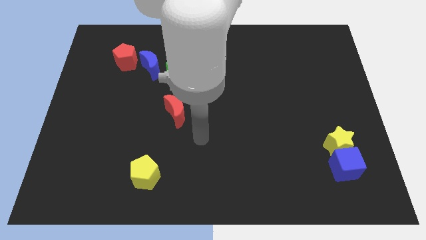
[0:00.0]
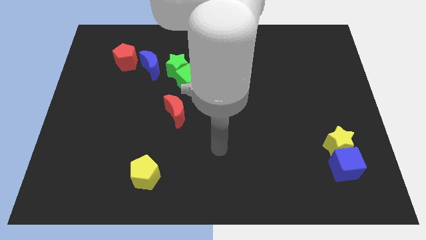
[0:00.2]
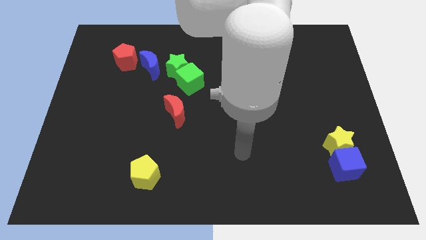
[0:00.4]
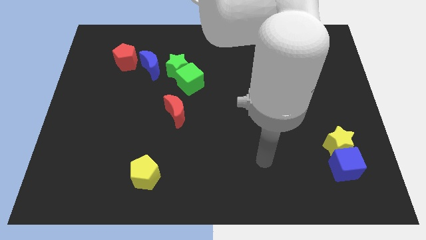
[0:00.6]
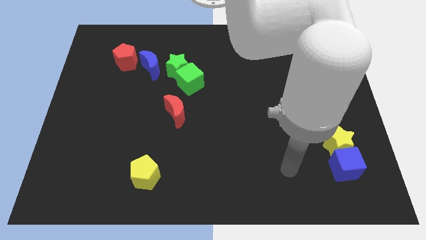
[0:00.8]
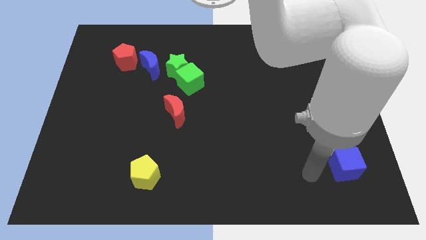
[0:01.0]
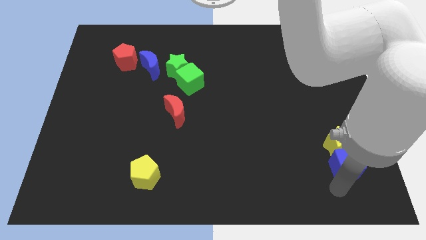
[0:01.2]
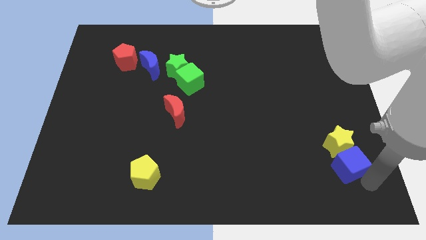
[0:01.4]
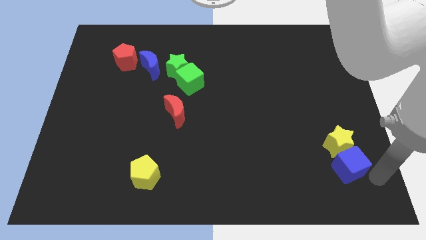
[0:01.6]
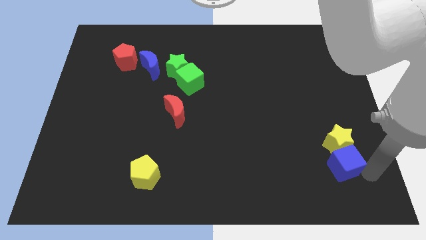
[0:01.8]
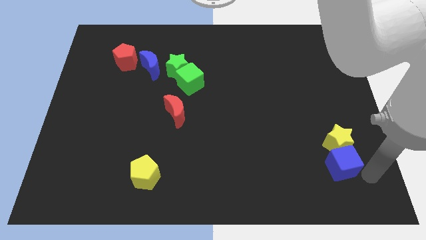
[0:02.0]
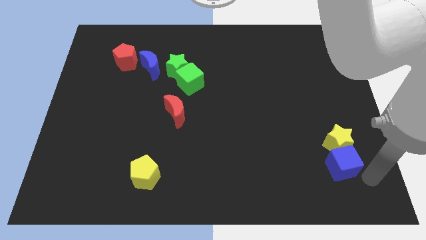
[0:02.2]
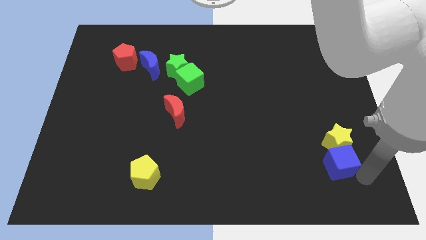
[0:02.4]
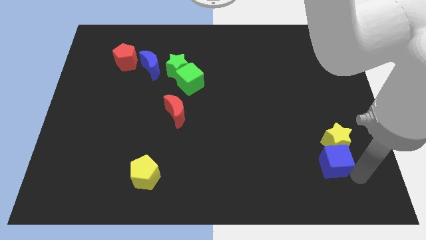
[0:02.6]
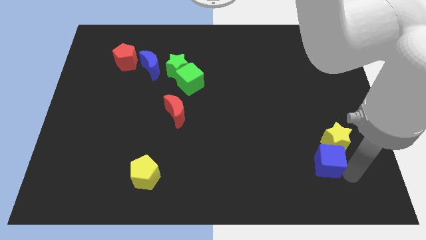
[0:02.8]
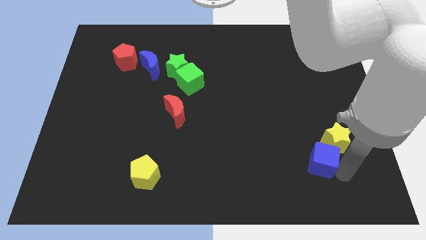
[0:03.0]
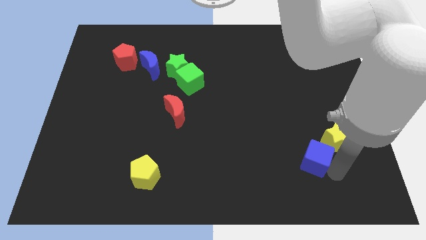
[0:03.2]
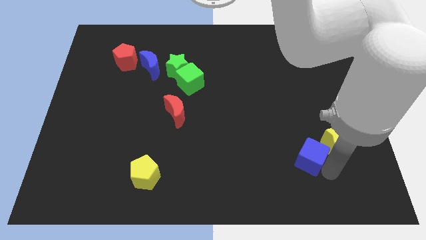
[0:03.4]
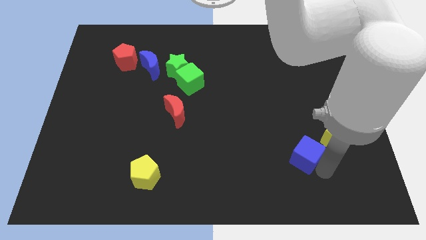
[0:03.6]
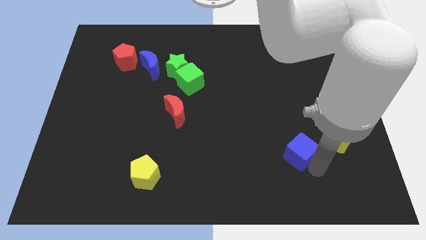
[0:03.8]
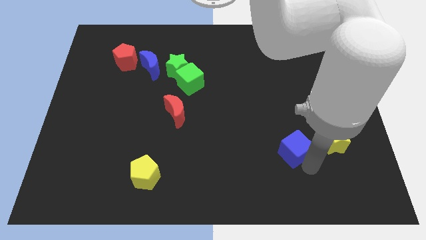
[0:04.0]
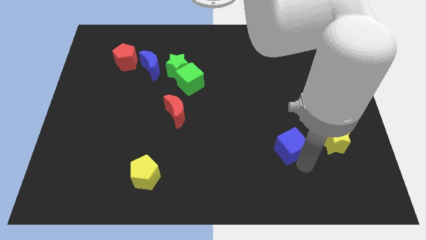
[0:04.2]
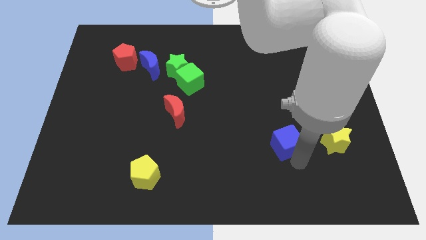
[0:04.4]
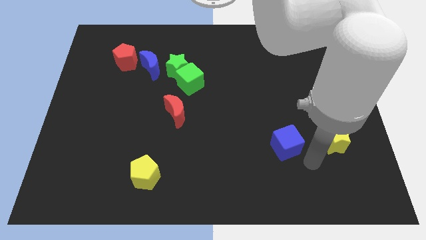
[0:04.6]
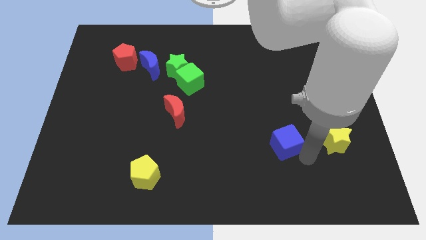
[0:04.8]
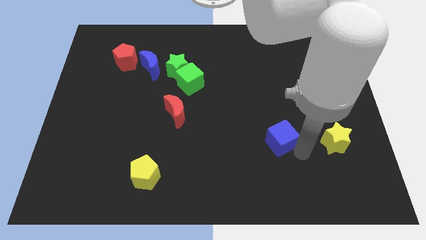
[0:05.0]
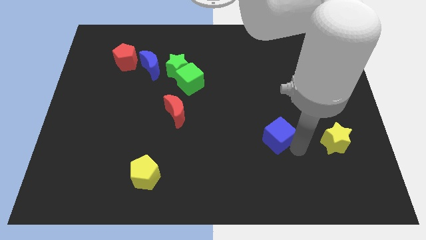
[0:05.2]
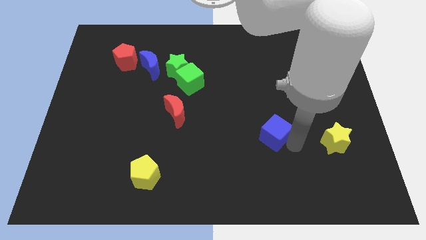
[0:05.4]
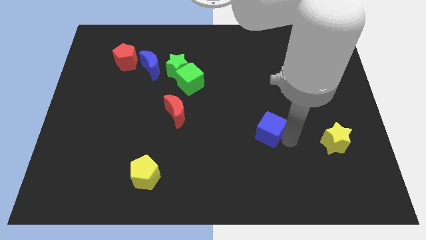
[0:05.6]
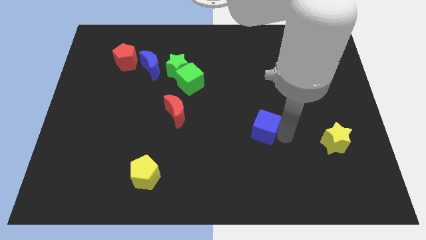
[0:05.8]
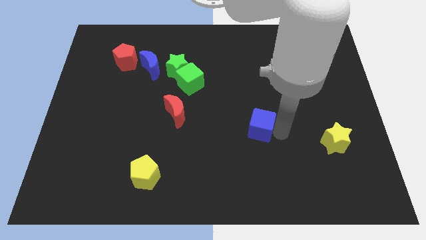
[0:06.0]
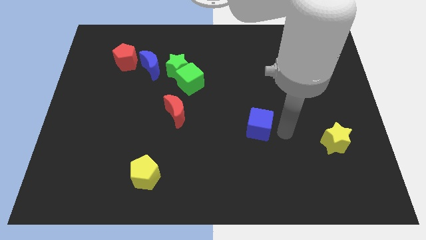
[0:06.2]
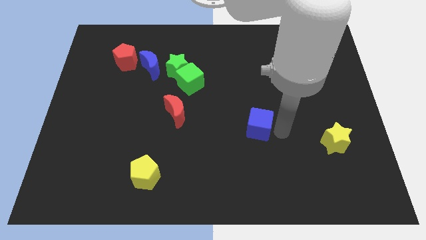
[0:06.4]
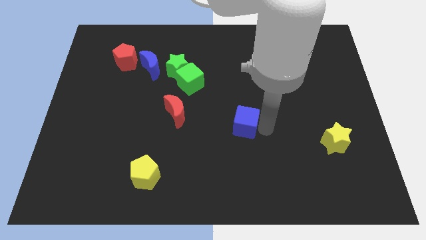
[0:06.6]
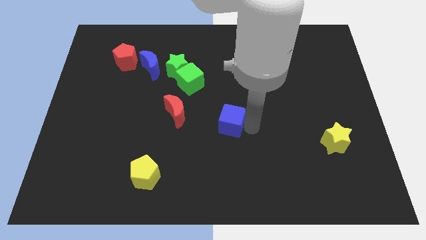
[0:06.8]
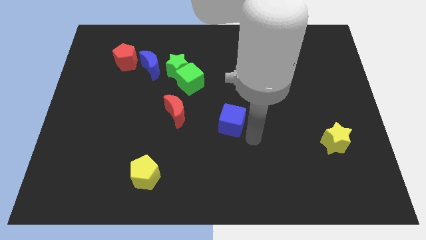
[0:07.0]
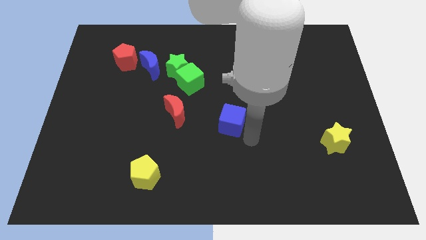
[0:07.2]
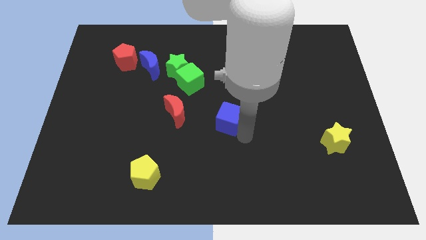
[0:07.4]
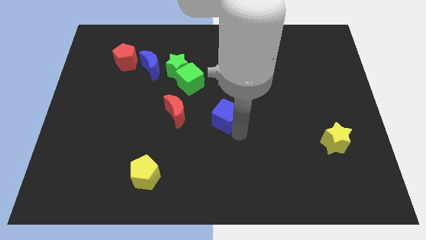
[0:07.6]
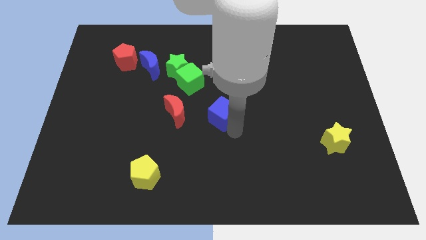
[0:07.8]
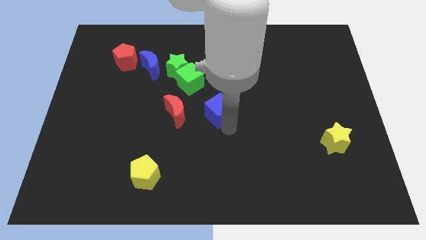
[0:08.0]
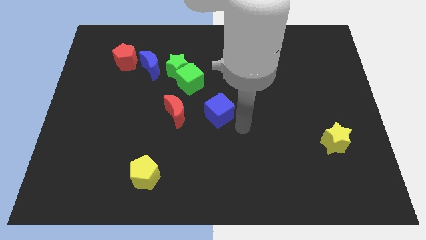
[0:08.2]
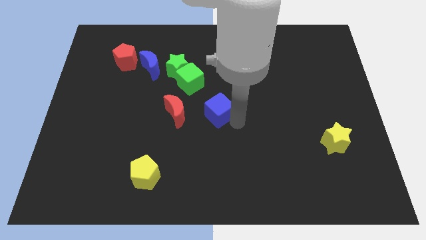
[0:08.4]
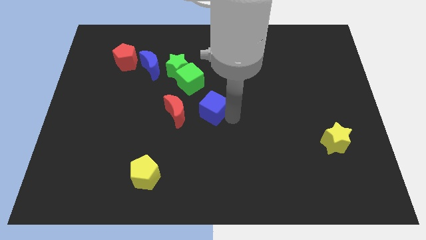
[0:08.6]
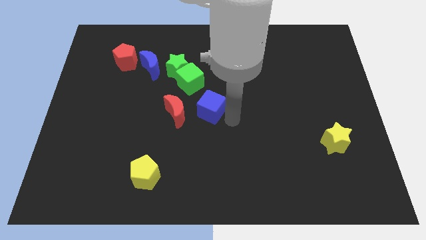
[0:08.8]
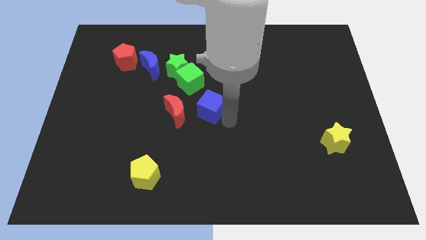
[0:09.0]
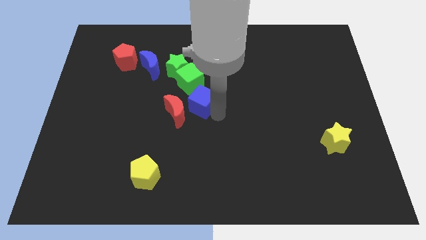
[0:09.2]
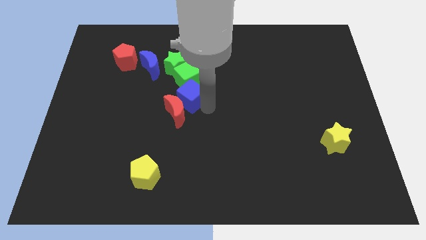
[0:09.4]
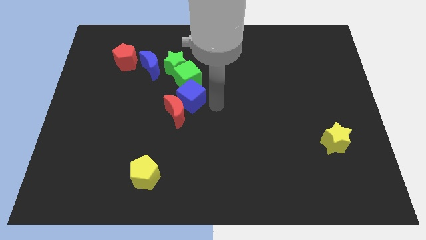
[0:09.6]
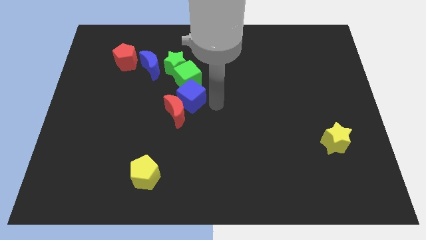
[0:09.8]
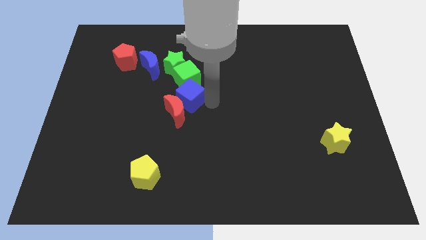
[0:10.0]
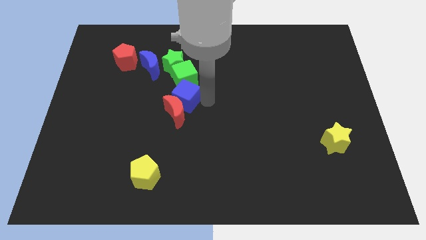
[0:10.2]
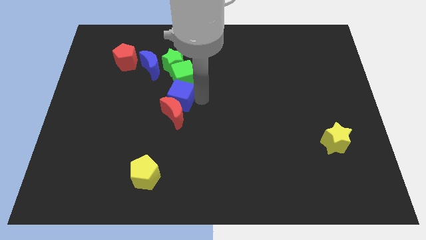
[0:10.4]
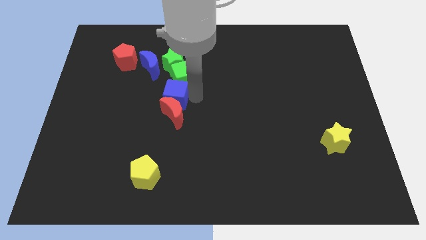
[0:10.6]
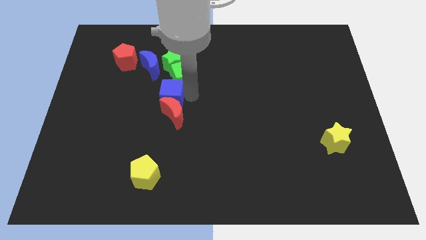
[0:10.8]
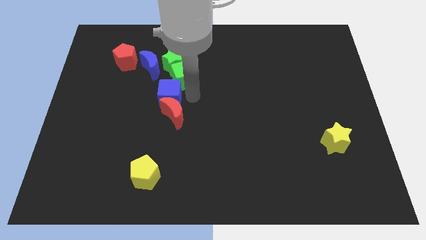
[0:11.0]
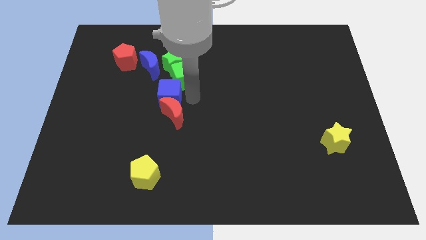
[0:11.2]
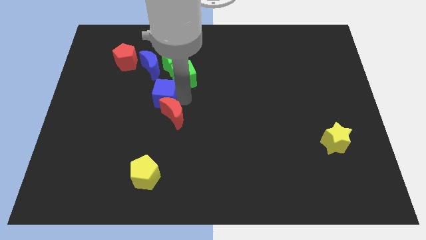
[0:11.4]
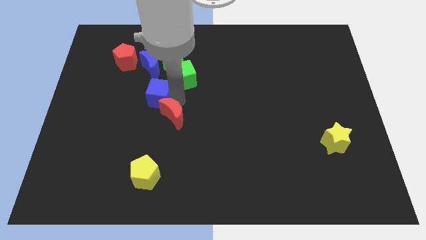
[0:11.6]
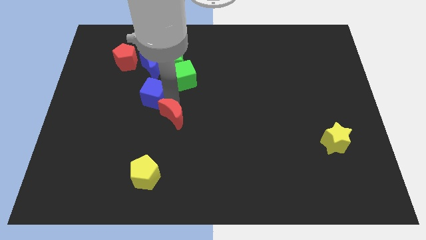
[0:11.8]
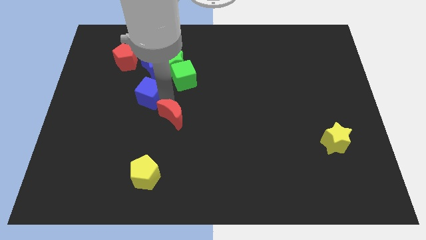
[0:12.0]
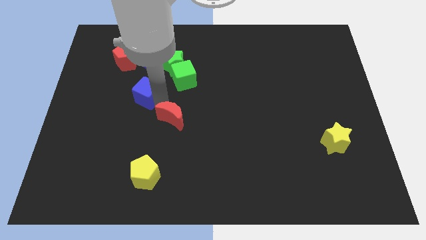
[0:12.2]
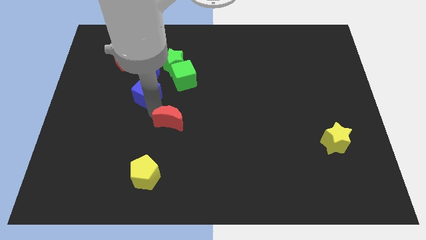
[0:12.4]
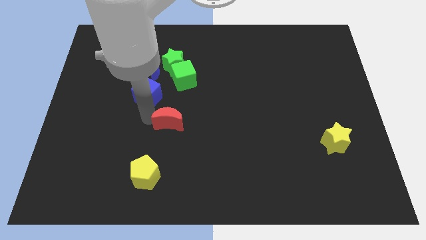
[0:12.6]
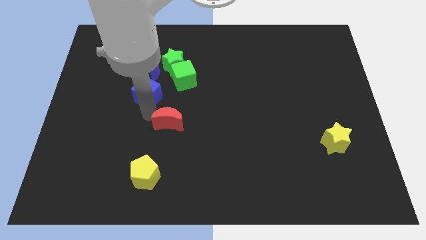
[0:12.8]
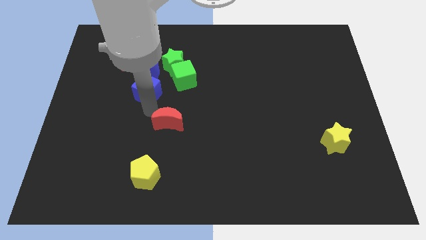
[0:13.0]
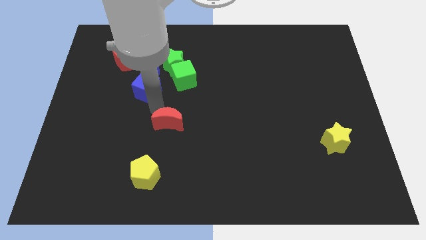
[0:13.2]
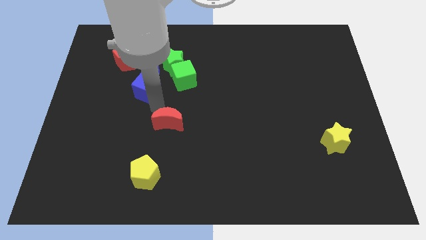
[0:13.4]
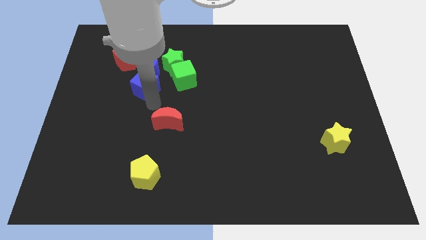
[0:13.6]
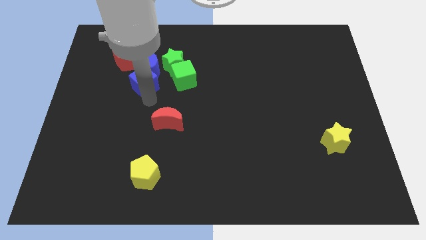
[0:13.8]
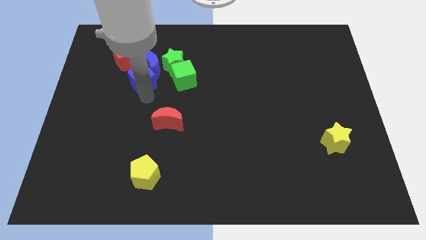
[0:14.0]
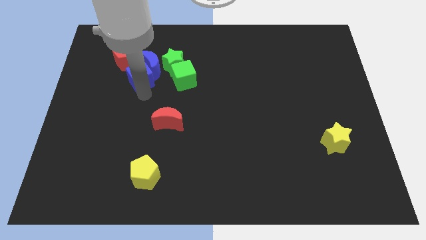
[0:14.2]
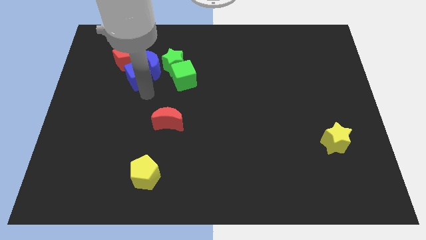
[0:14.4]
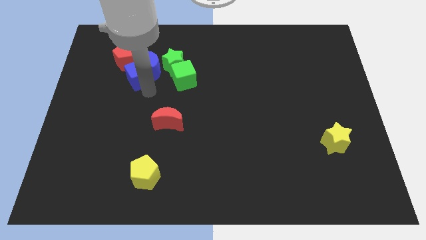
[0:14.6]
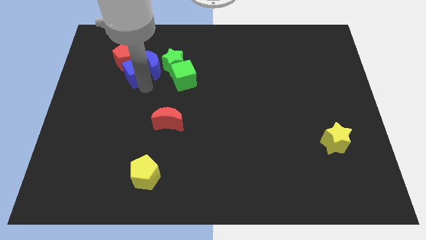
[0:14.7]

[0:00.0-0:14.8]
slide the blue cube next to the red pentagon

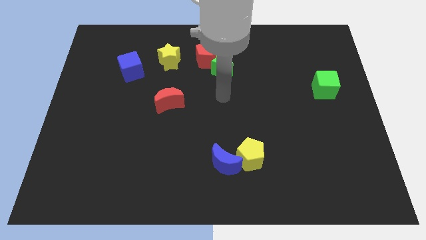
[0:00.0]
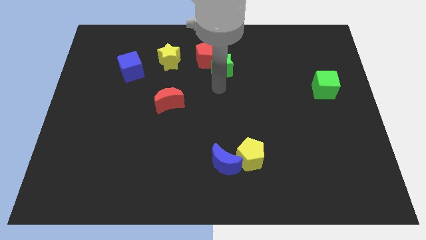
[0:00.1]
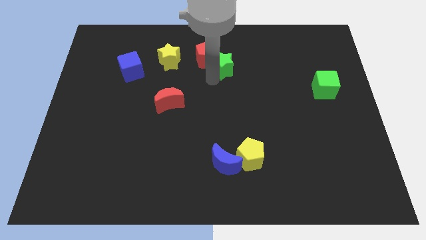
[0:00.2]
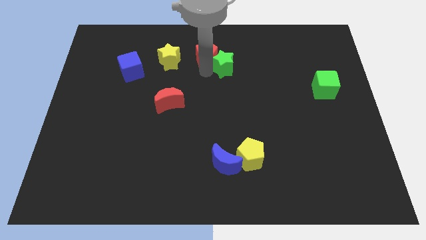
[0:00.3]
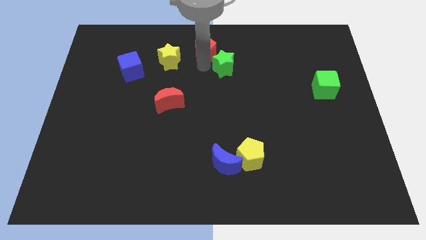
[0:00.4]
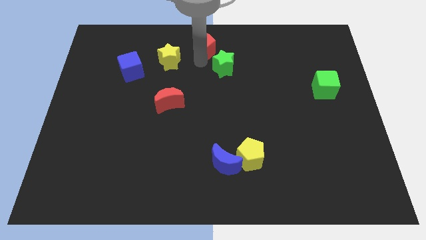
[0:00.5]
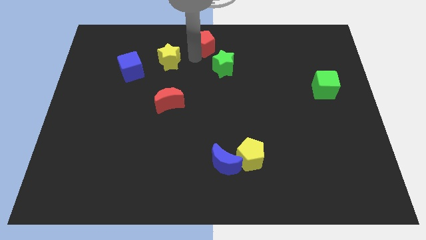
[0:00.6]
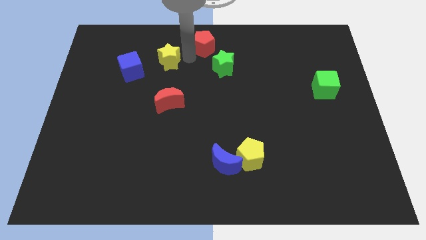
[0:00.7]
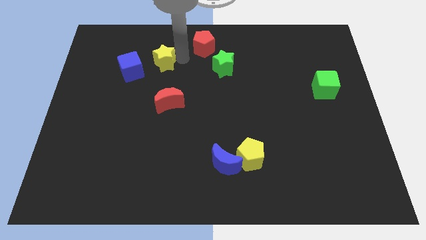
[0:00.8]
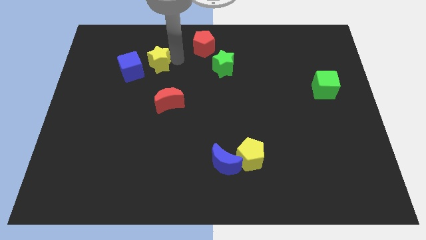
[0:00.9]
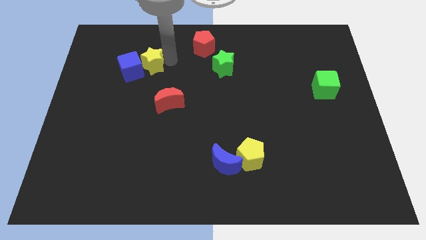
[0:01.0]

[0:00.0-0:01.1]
slide the yellow star towards the blue cube
